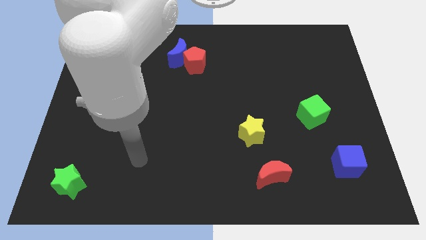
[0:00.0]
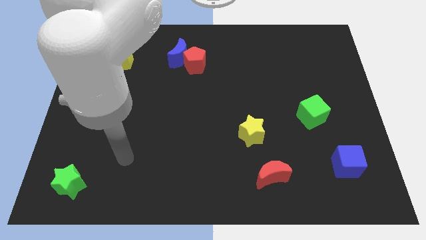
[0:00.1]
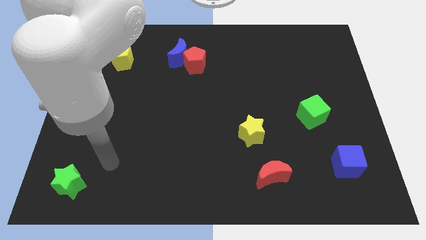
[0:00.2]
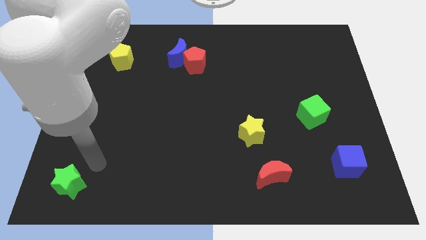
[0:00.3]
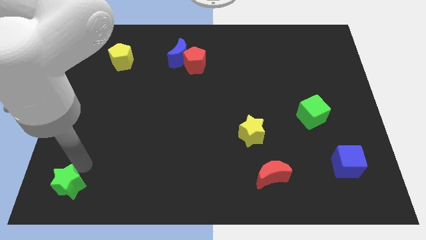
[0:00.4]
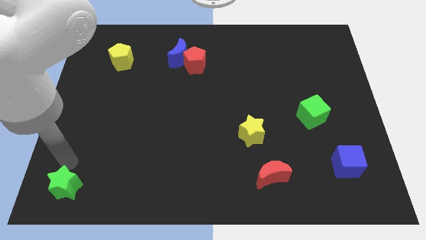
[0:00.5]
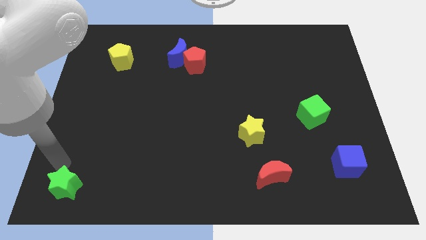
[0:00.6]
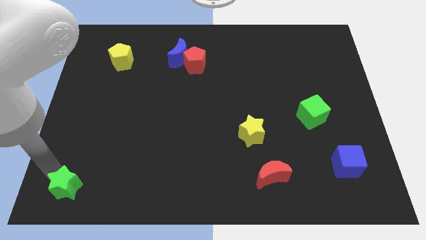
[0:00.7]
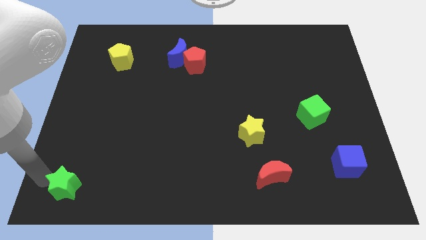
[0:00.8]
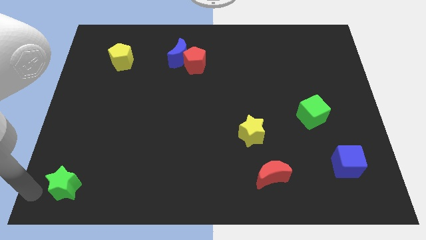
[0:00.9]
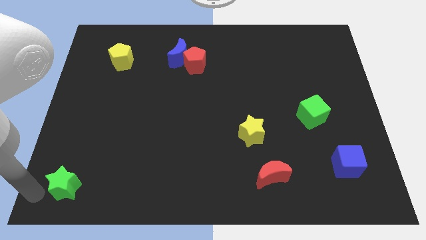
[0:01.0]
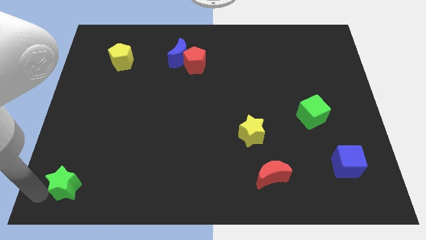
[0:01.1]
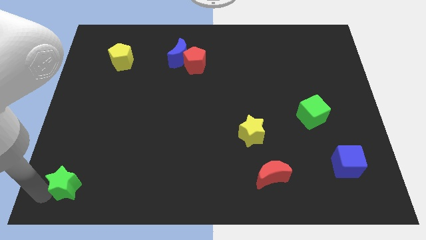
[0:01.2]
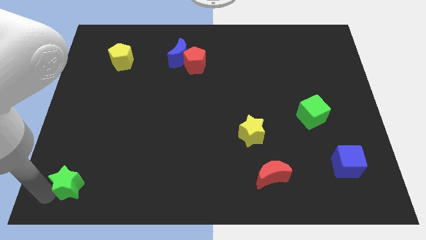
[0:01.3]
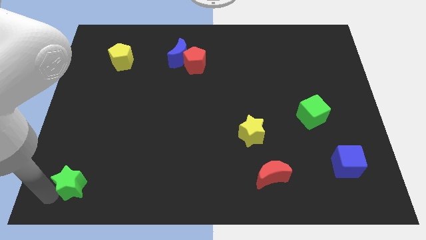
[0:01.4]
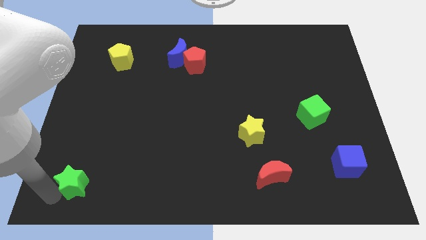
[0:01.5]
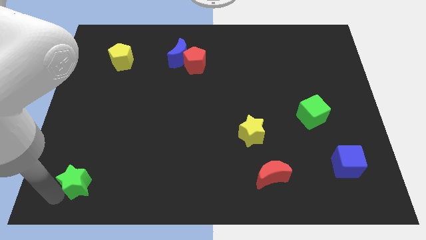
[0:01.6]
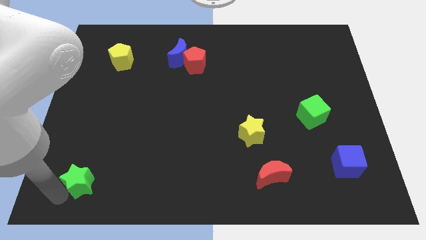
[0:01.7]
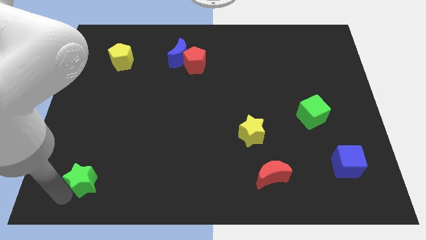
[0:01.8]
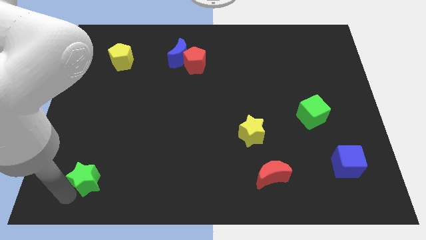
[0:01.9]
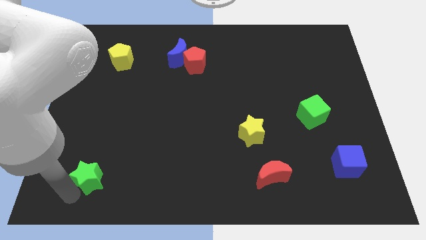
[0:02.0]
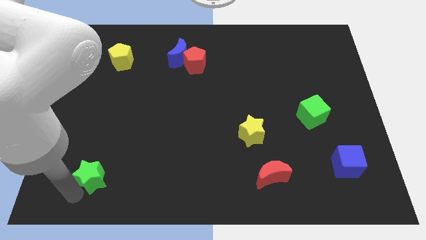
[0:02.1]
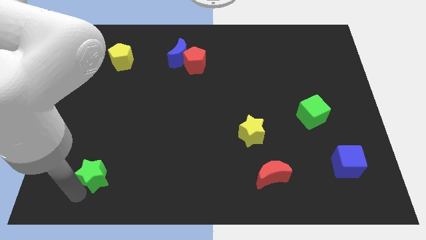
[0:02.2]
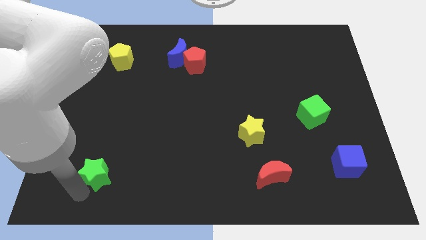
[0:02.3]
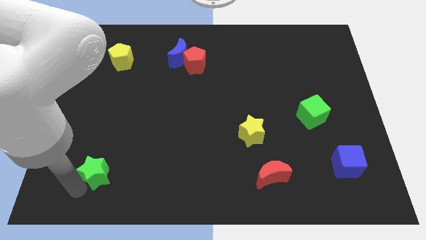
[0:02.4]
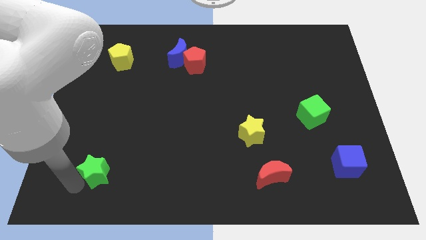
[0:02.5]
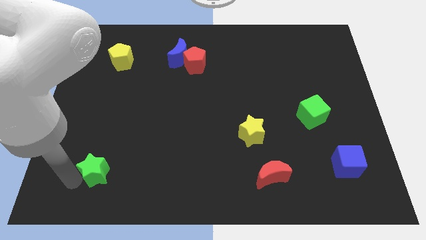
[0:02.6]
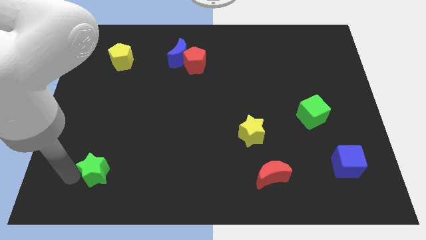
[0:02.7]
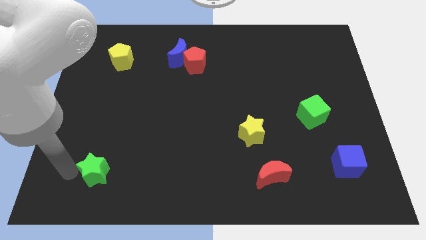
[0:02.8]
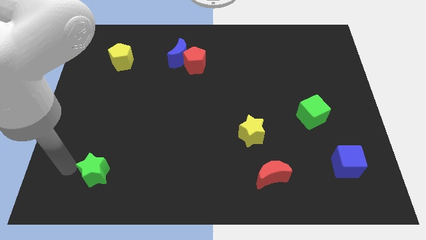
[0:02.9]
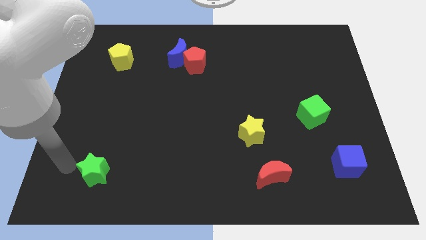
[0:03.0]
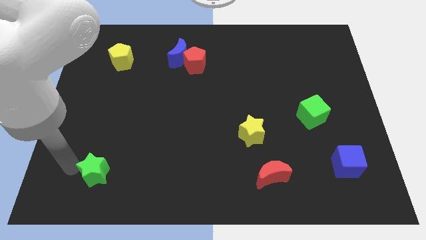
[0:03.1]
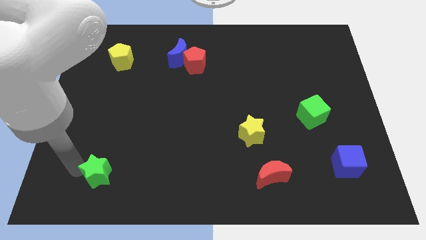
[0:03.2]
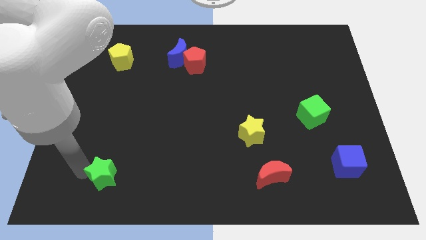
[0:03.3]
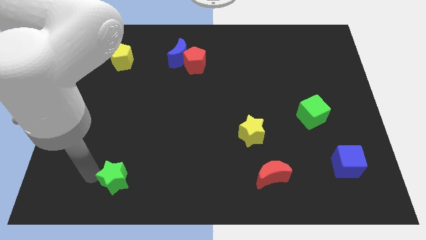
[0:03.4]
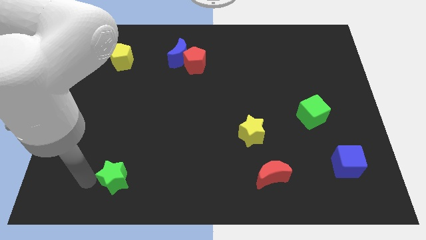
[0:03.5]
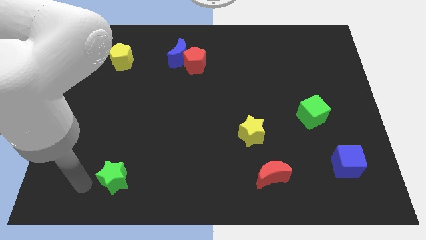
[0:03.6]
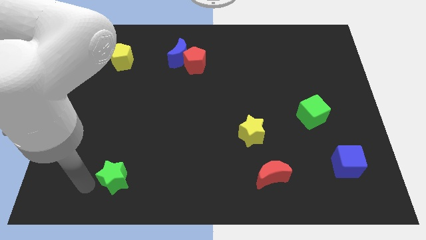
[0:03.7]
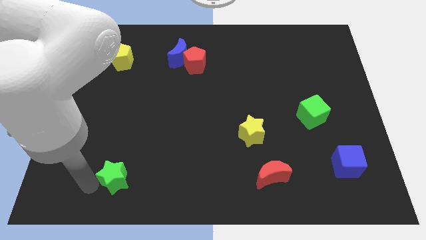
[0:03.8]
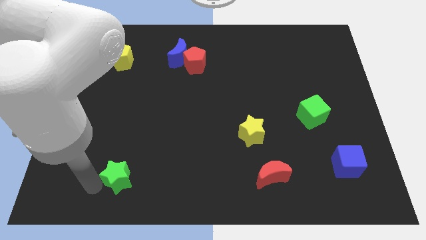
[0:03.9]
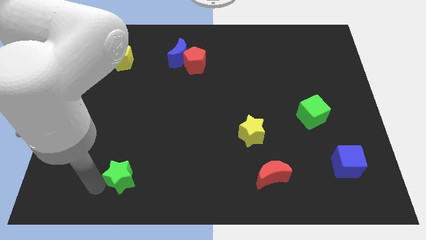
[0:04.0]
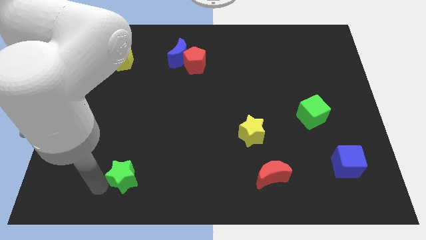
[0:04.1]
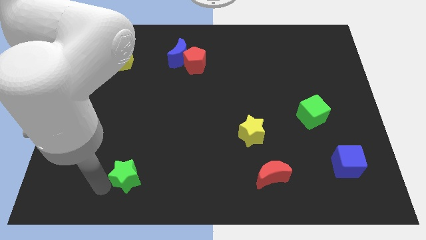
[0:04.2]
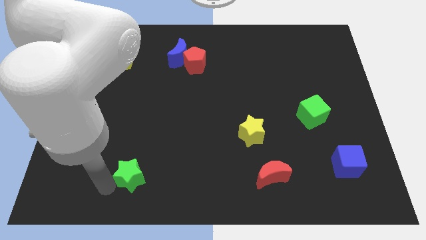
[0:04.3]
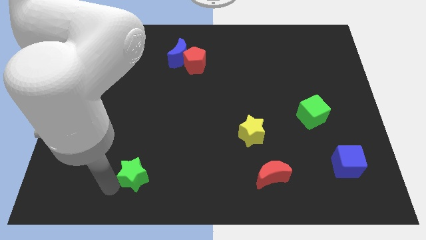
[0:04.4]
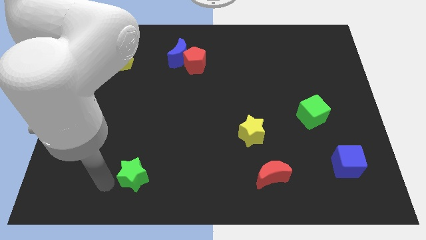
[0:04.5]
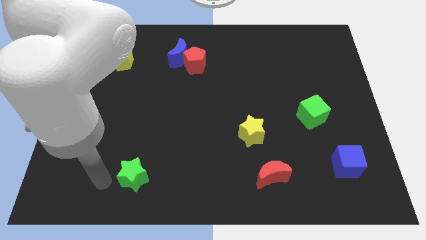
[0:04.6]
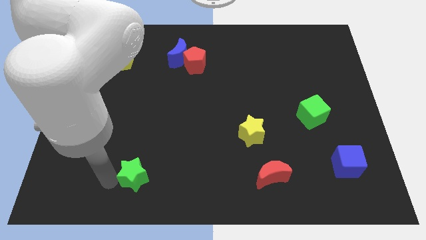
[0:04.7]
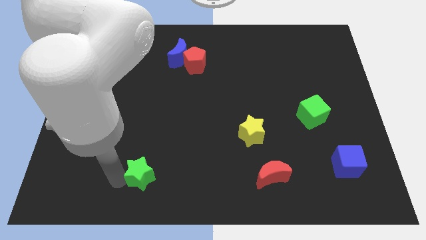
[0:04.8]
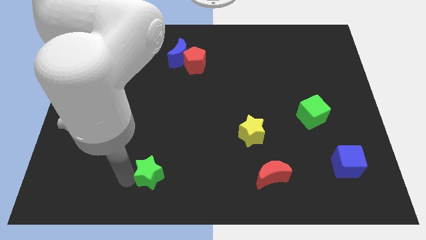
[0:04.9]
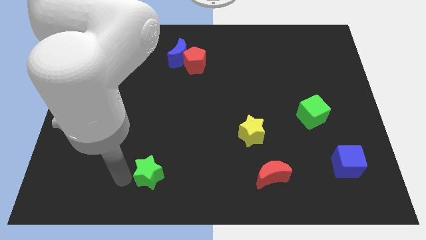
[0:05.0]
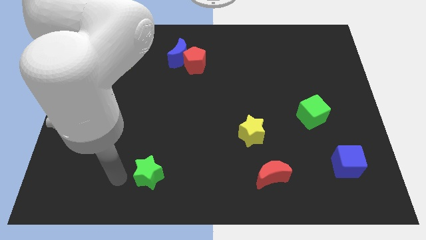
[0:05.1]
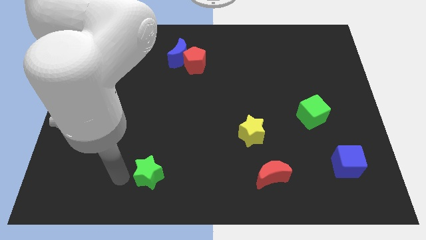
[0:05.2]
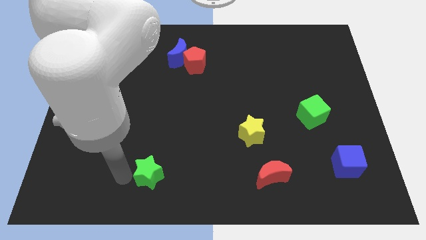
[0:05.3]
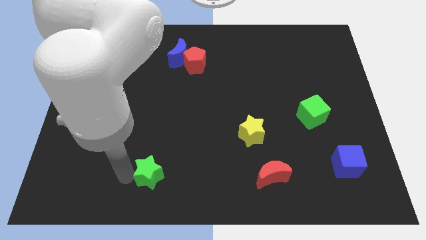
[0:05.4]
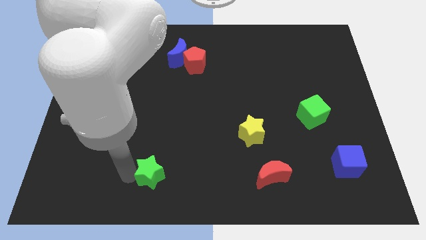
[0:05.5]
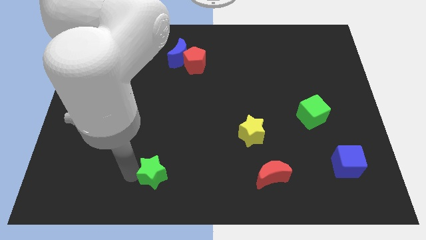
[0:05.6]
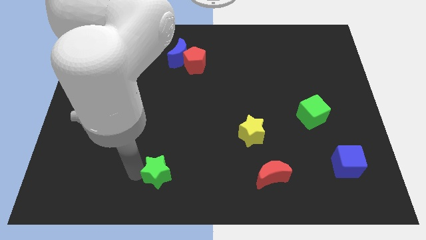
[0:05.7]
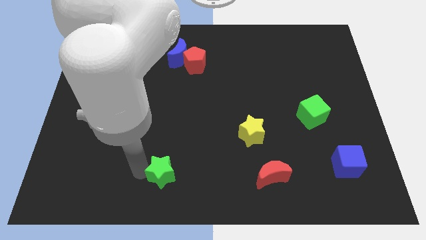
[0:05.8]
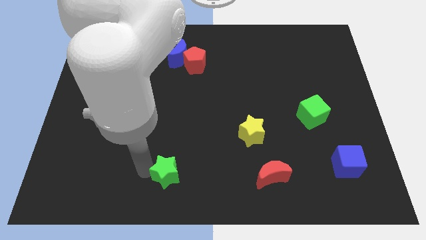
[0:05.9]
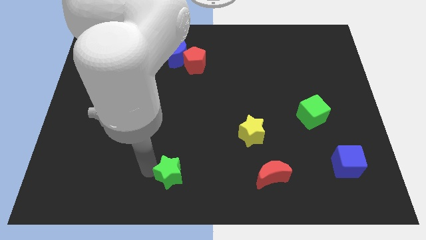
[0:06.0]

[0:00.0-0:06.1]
push the green star right

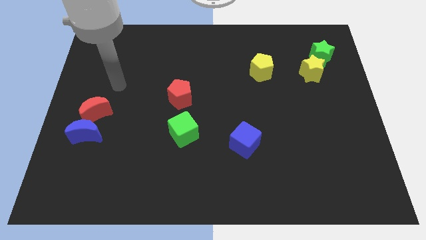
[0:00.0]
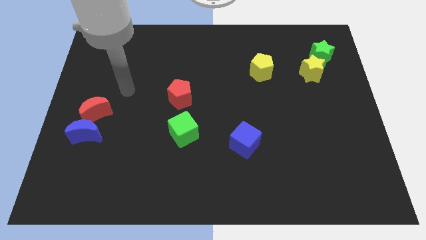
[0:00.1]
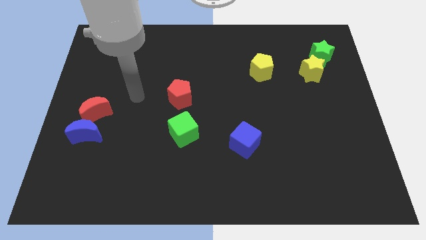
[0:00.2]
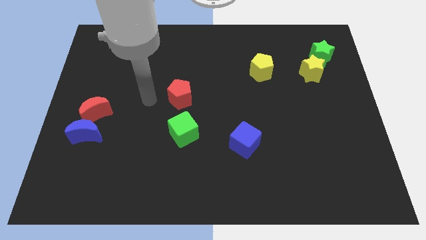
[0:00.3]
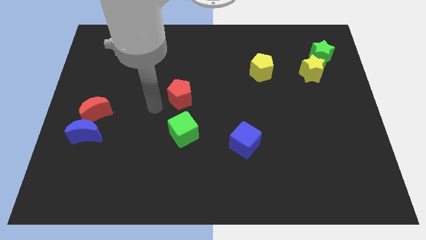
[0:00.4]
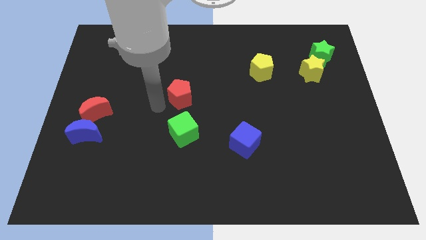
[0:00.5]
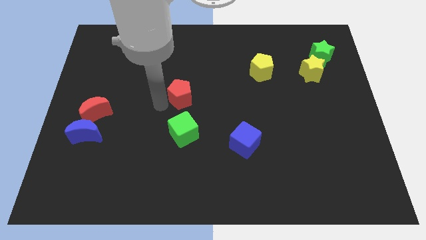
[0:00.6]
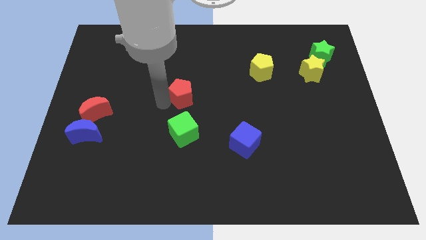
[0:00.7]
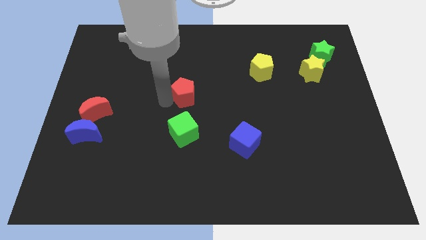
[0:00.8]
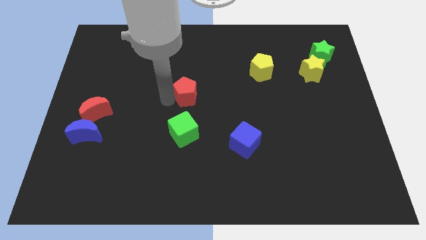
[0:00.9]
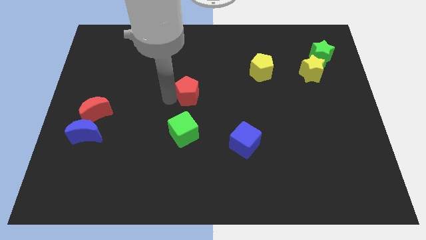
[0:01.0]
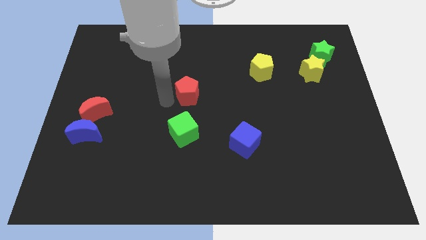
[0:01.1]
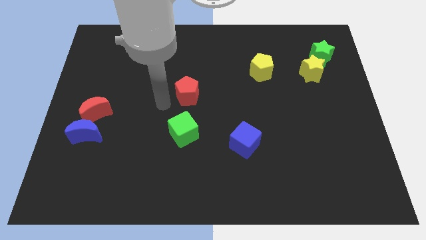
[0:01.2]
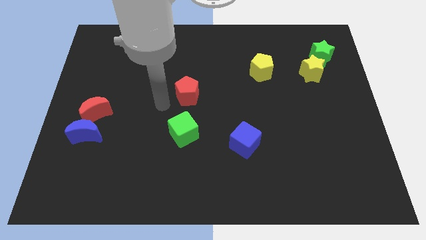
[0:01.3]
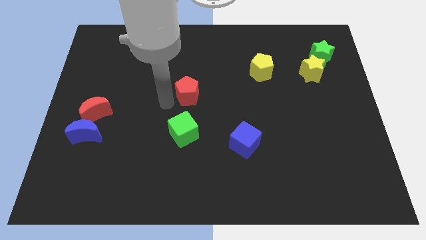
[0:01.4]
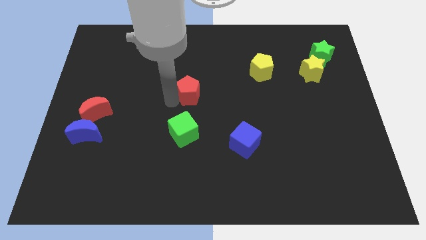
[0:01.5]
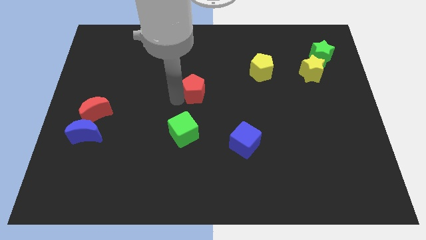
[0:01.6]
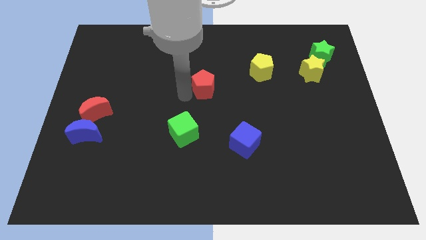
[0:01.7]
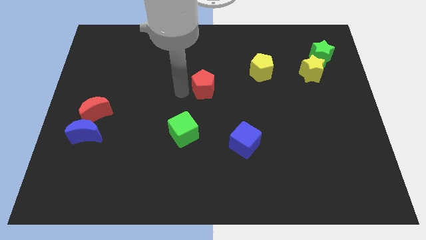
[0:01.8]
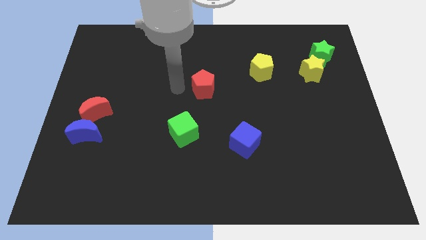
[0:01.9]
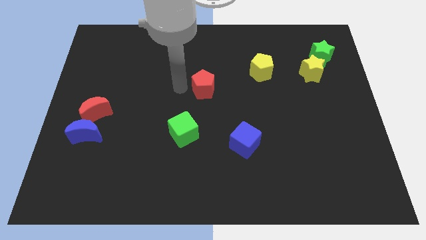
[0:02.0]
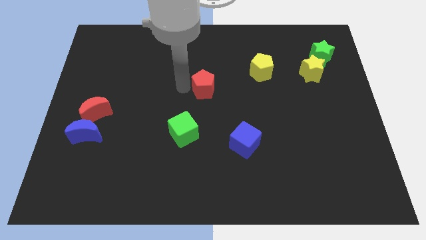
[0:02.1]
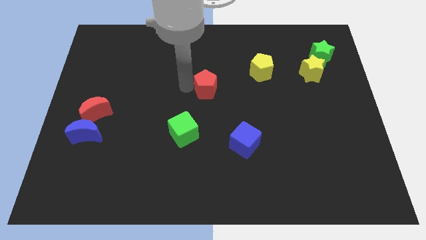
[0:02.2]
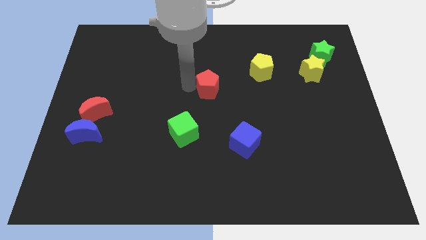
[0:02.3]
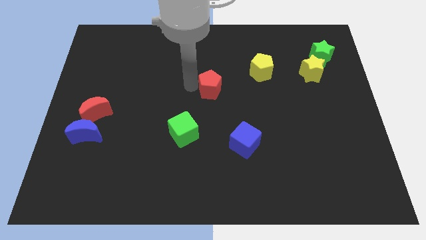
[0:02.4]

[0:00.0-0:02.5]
move the red pentagon right somewhat
